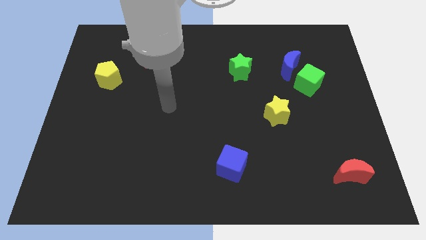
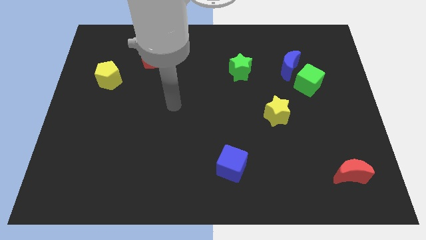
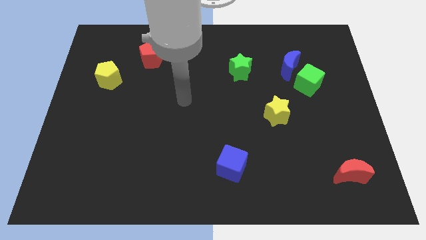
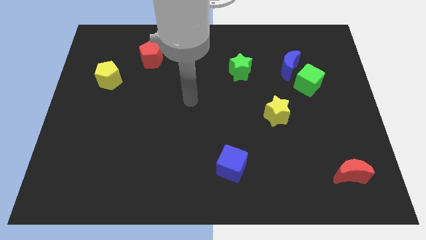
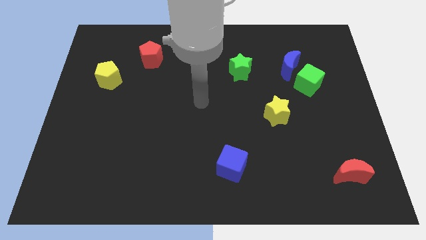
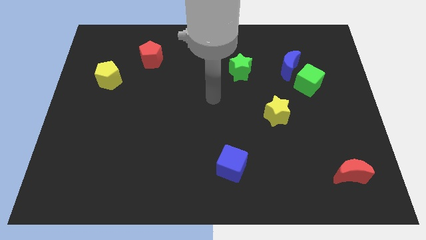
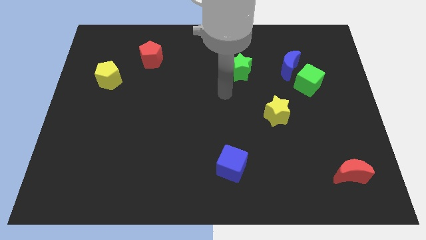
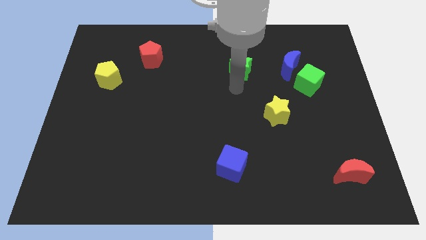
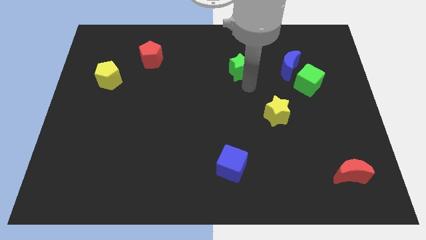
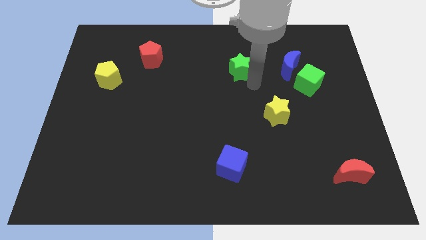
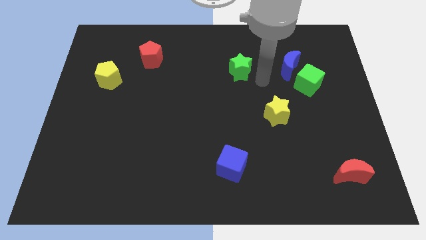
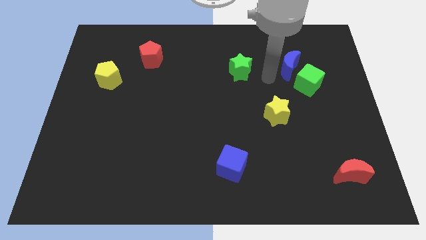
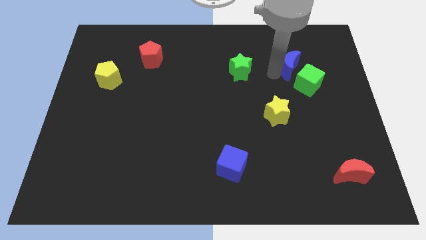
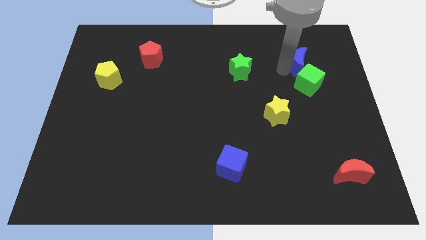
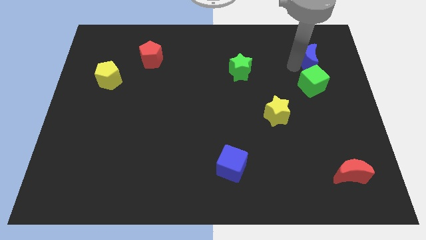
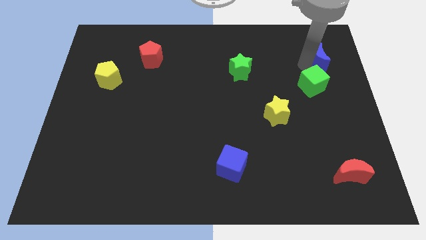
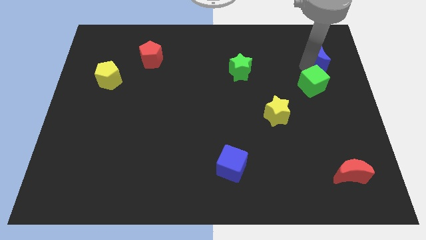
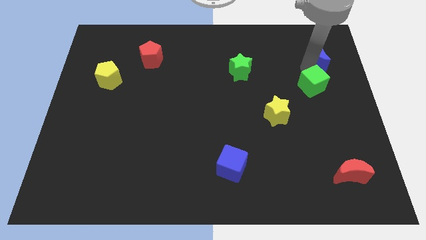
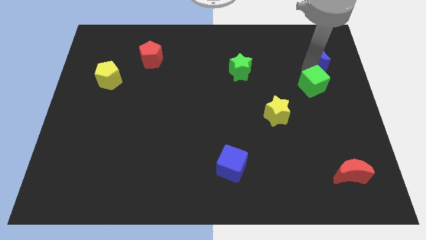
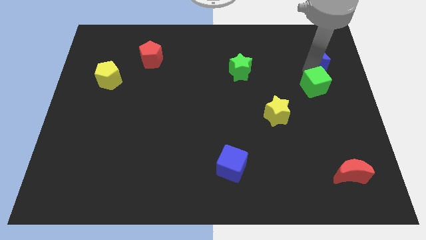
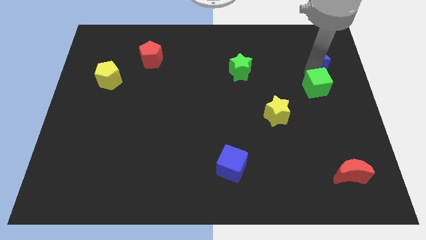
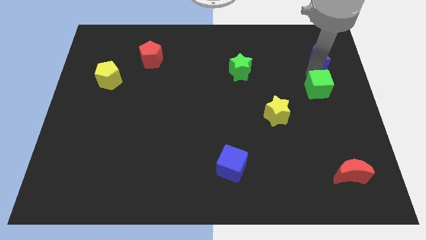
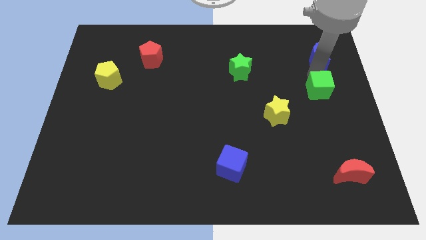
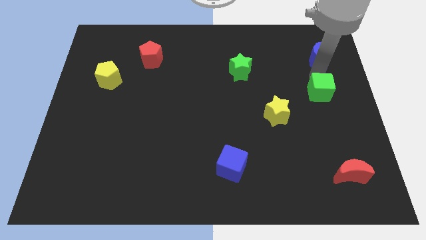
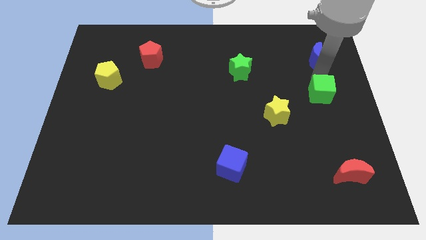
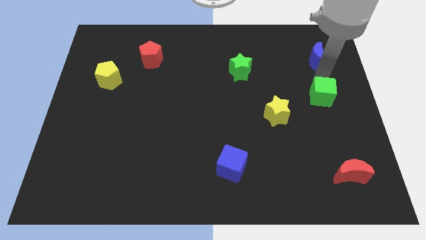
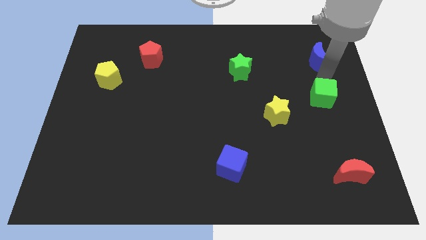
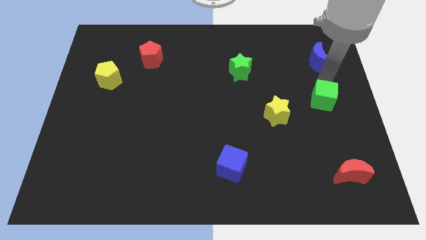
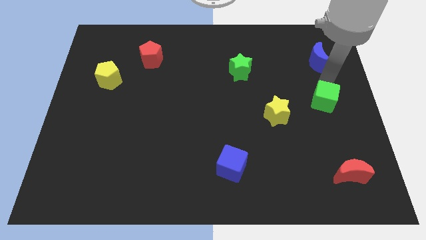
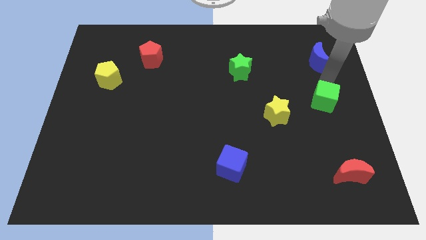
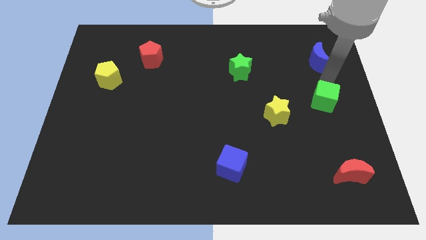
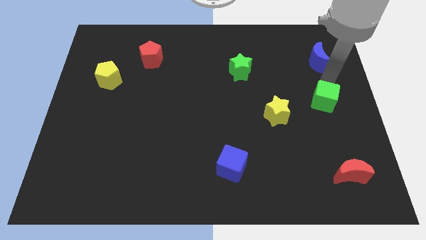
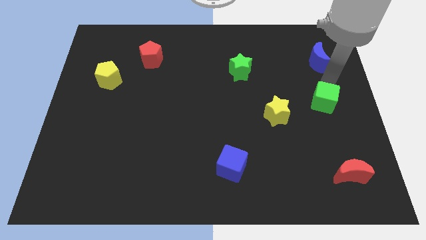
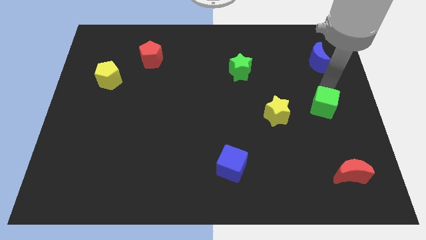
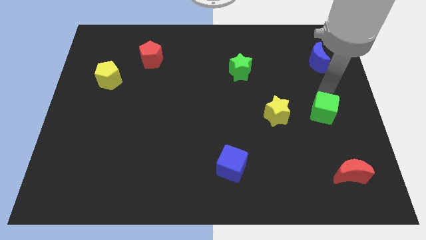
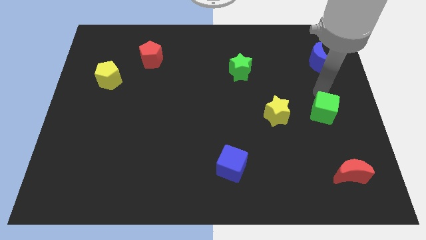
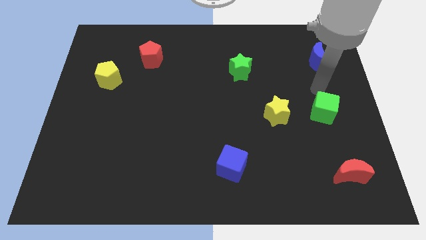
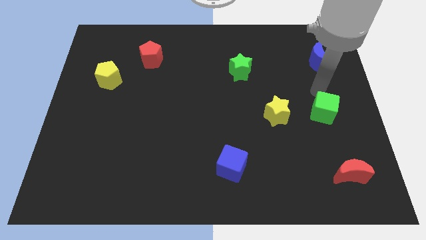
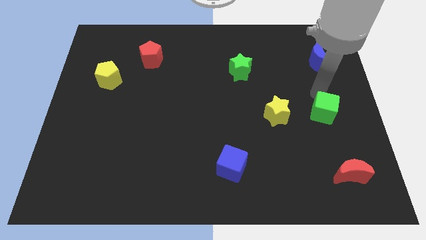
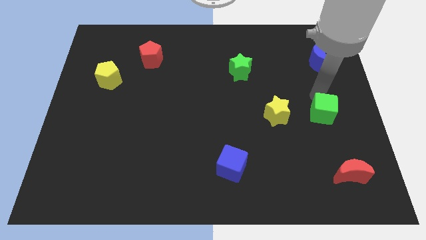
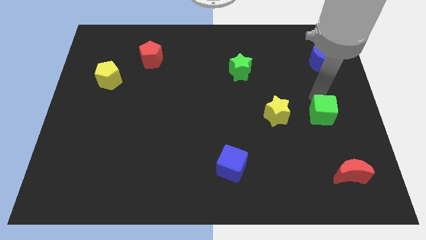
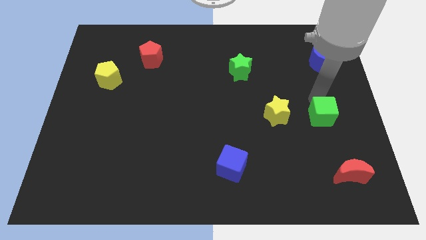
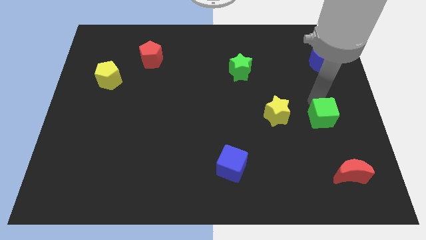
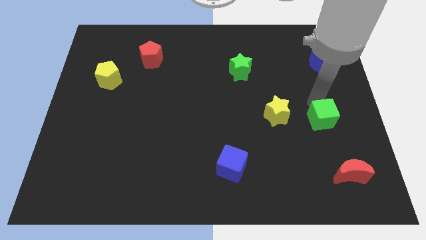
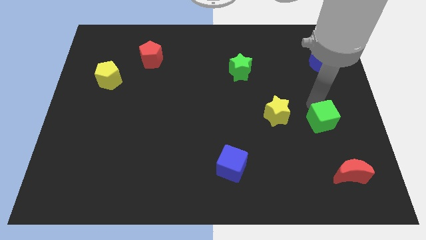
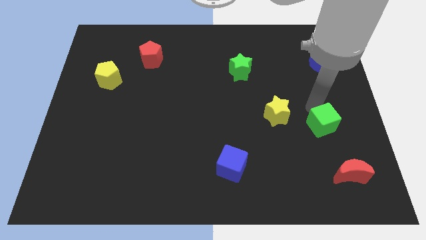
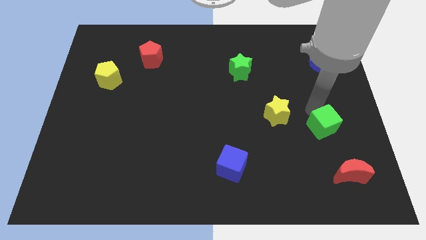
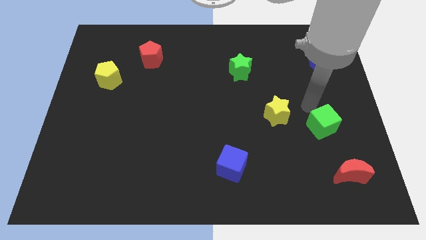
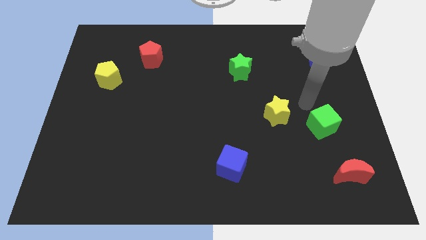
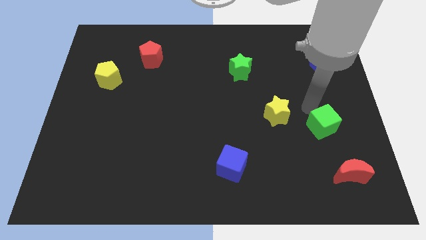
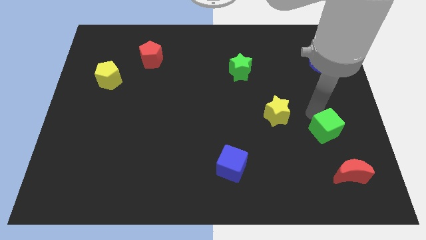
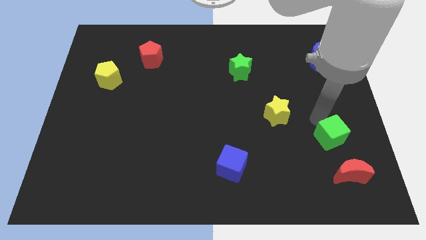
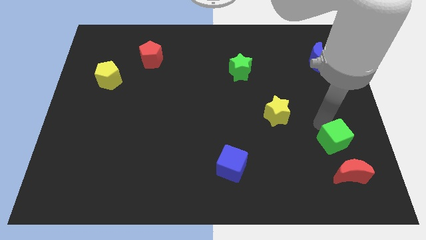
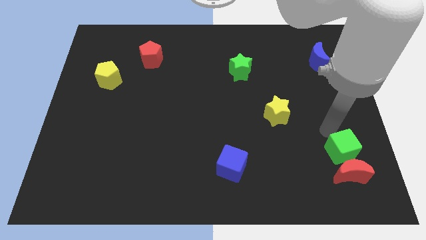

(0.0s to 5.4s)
put the green cube close to the red moon

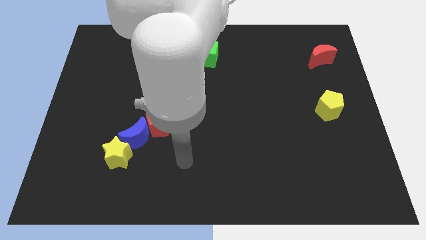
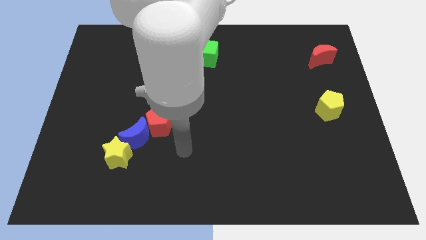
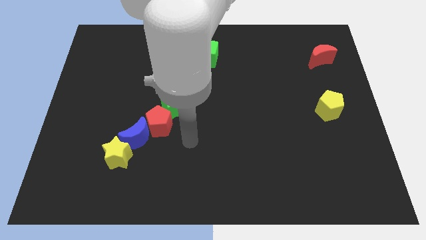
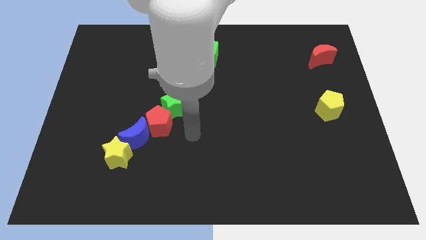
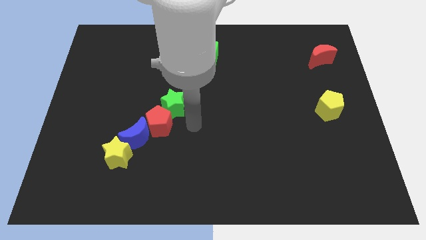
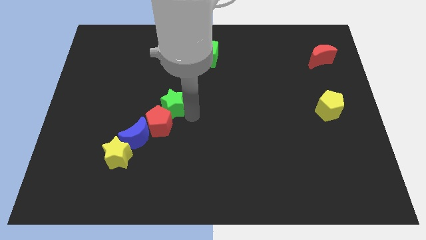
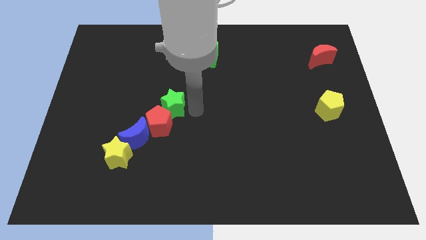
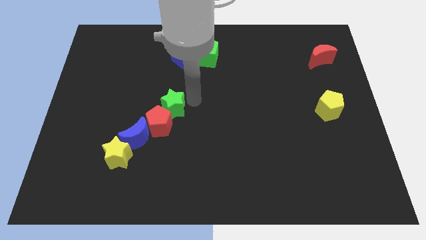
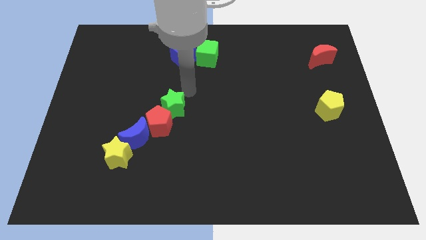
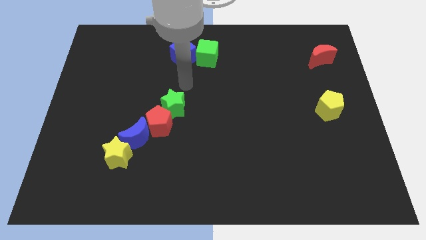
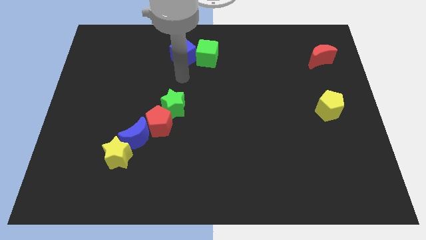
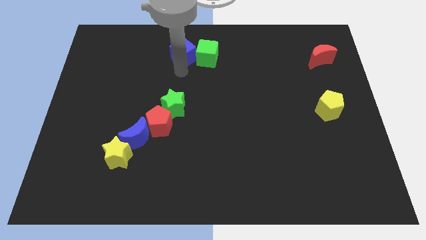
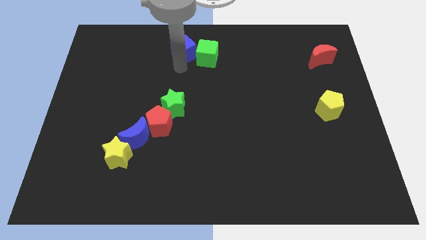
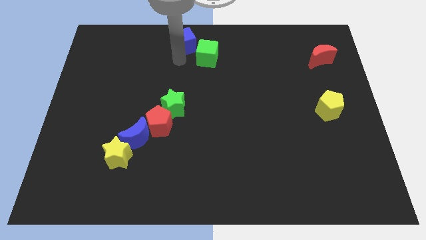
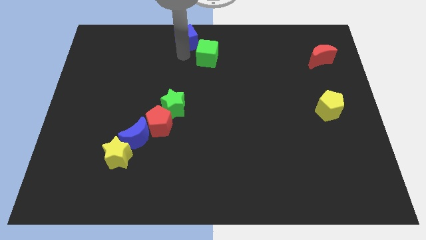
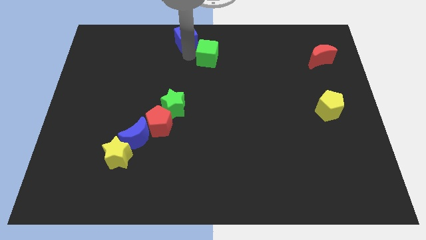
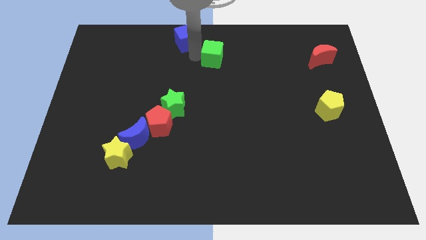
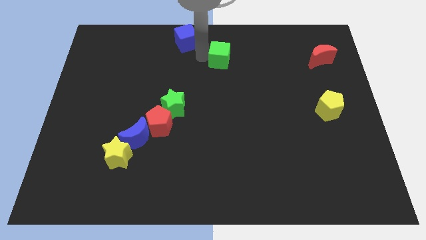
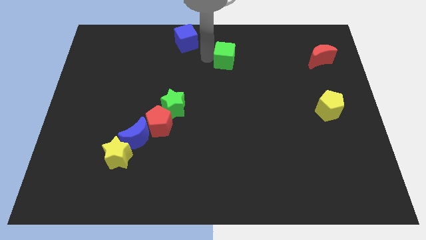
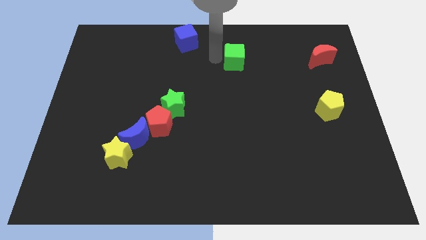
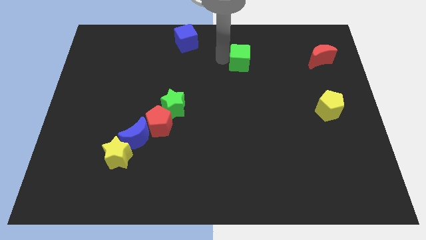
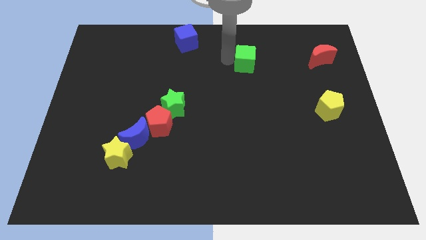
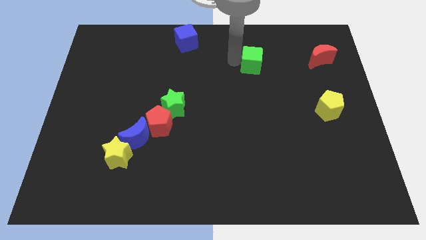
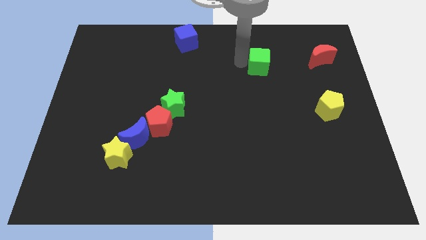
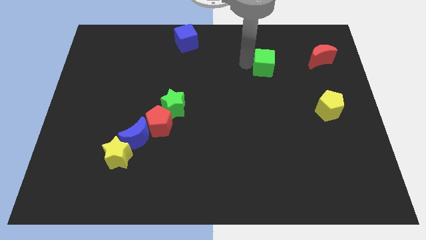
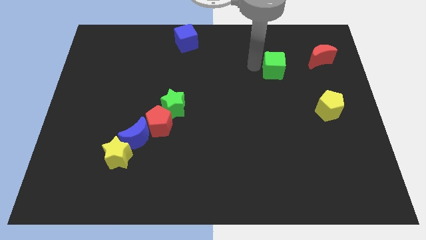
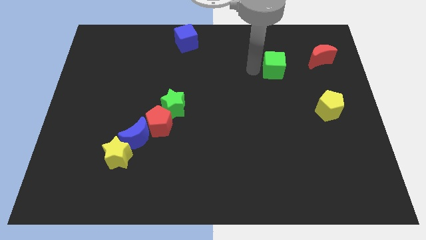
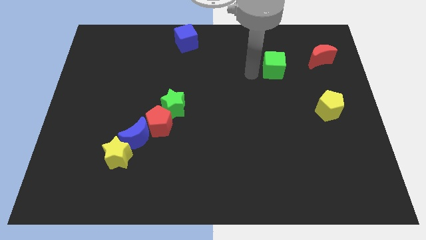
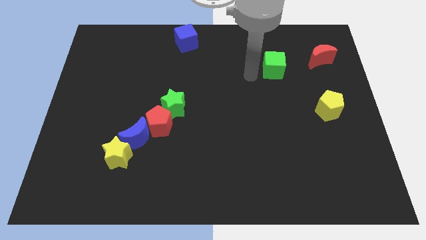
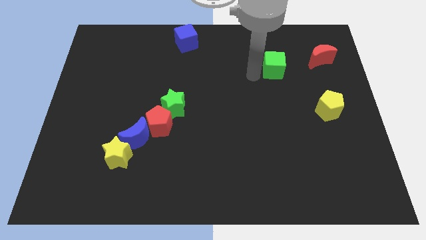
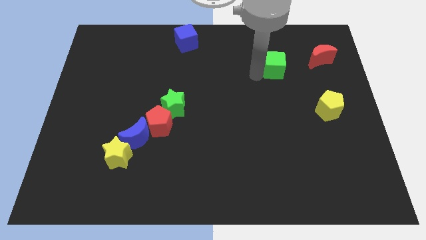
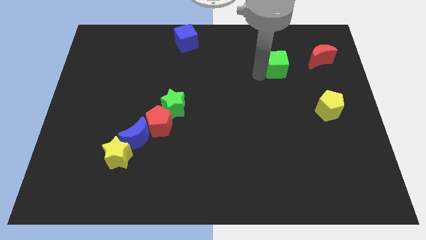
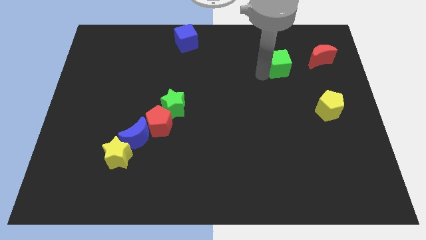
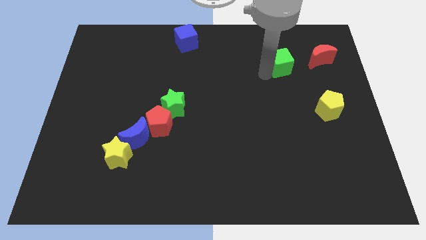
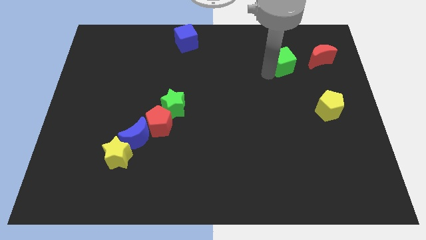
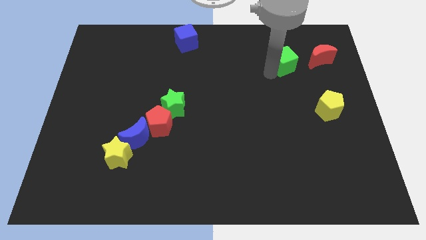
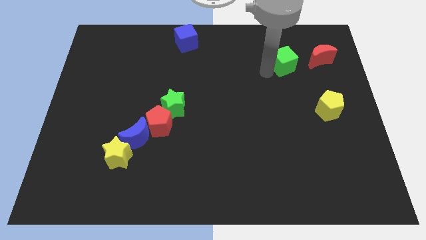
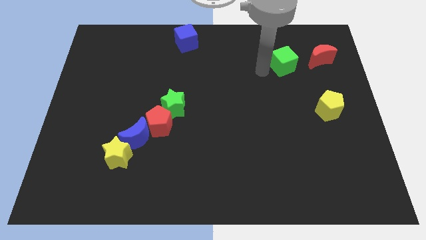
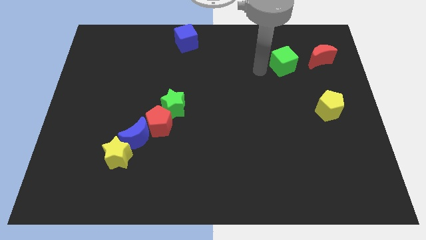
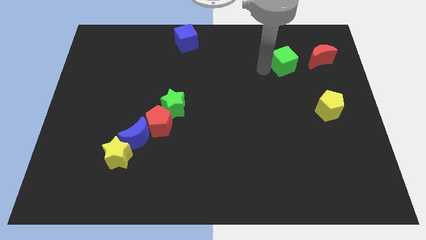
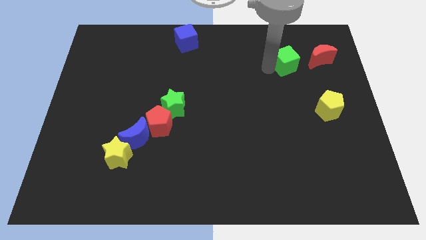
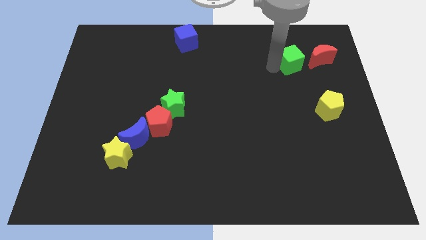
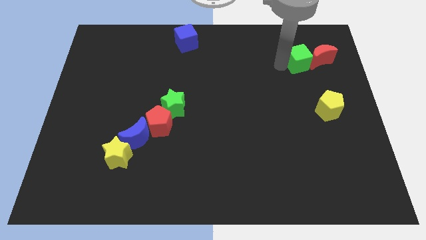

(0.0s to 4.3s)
slide the green cube to the red moon
